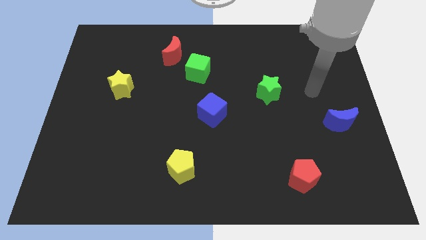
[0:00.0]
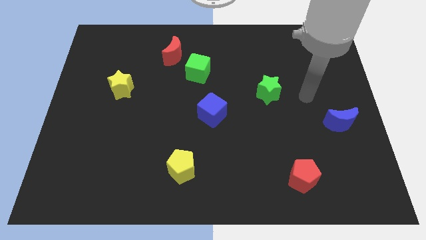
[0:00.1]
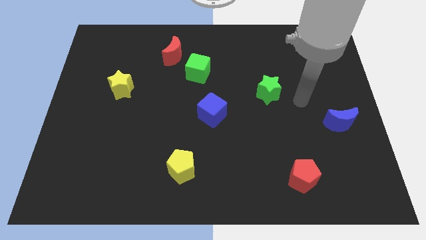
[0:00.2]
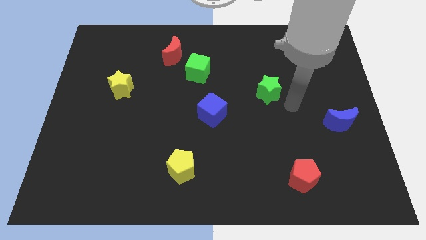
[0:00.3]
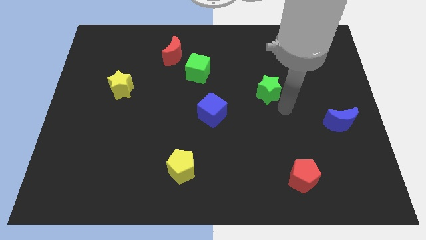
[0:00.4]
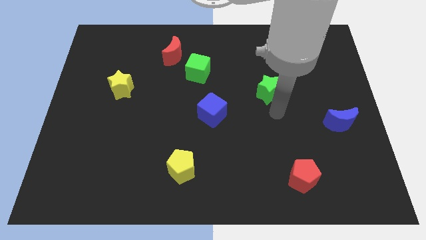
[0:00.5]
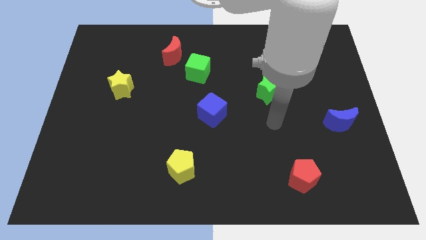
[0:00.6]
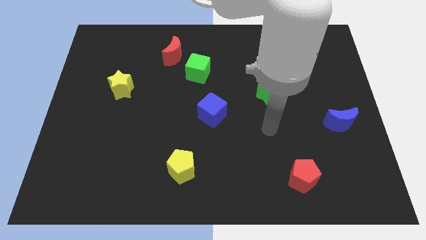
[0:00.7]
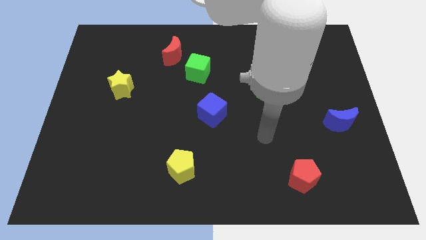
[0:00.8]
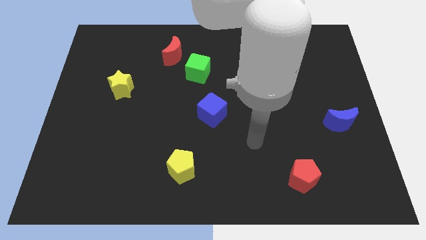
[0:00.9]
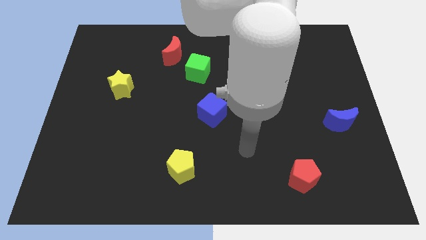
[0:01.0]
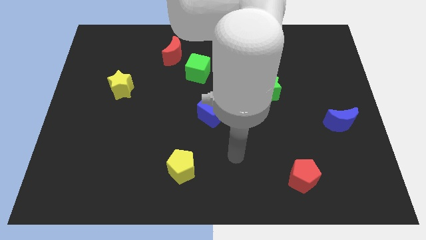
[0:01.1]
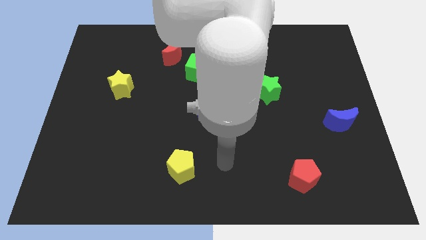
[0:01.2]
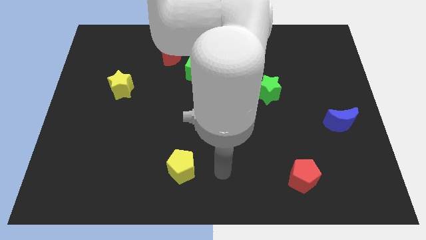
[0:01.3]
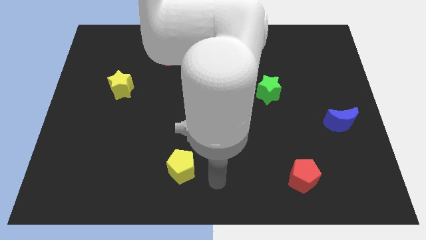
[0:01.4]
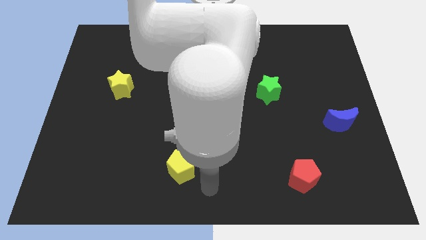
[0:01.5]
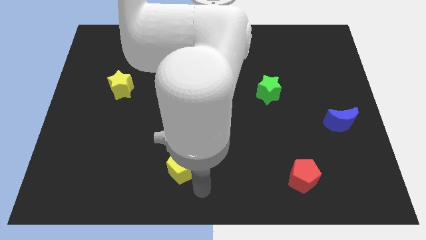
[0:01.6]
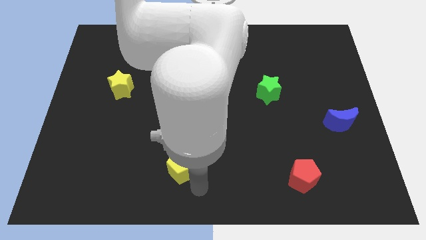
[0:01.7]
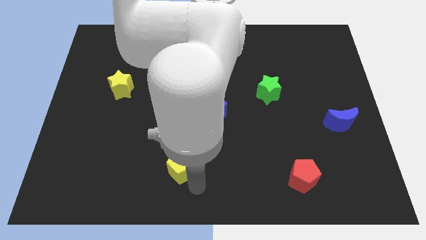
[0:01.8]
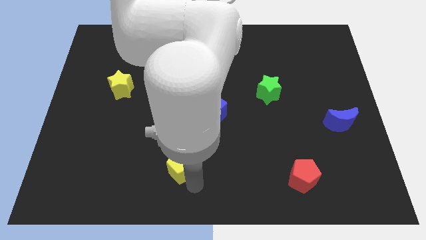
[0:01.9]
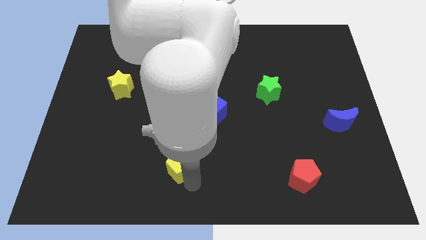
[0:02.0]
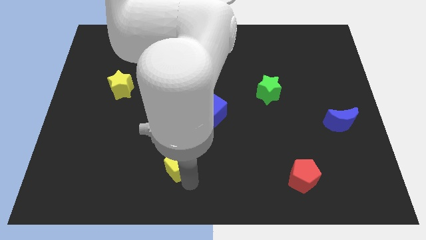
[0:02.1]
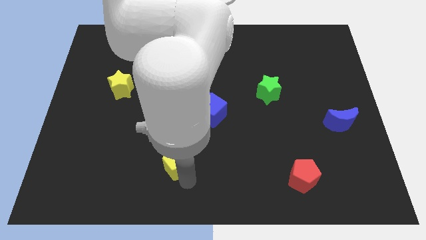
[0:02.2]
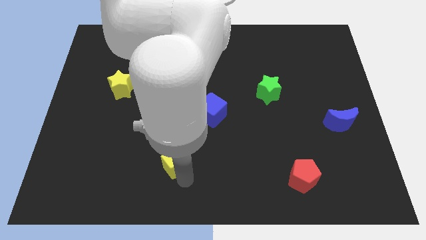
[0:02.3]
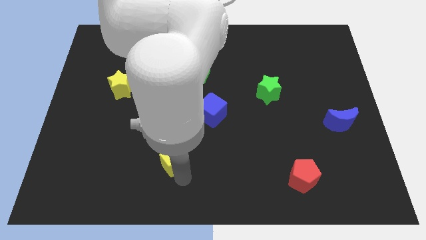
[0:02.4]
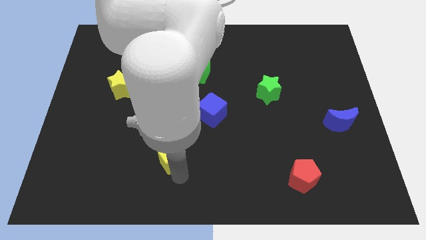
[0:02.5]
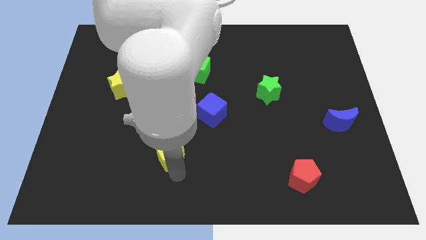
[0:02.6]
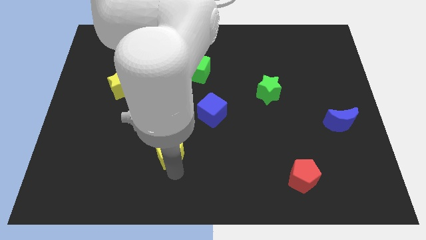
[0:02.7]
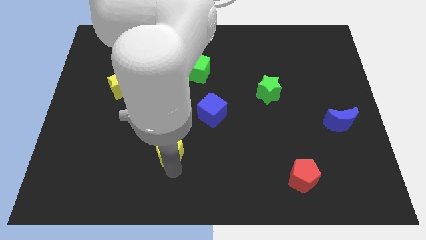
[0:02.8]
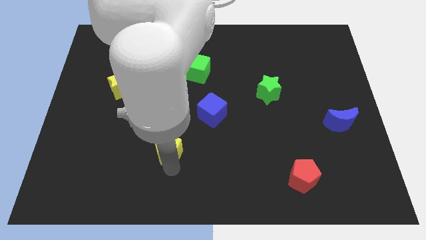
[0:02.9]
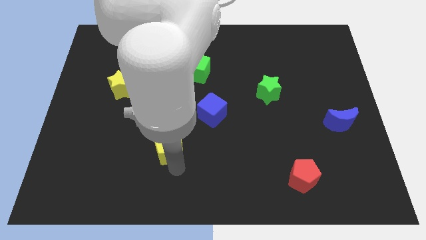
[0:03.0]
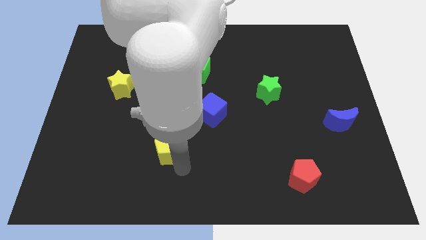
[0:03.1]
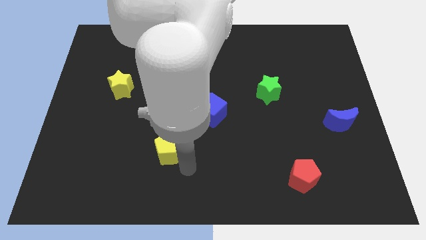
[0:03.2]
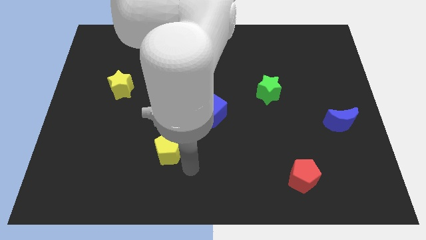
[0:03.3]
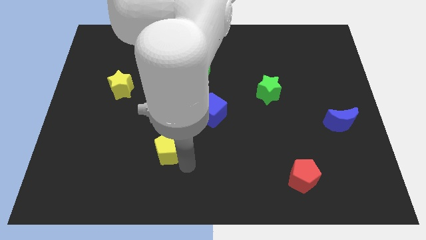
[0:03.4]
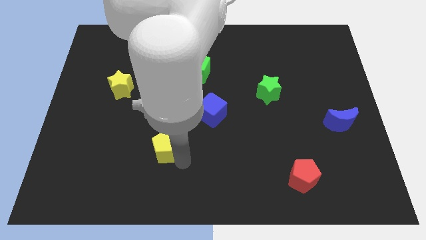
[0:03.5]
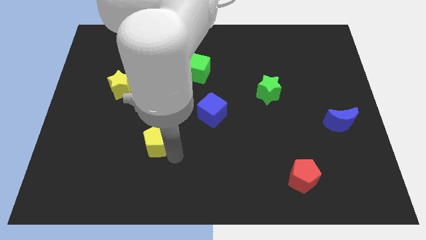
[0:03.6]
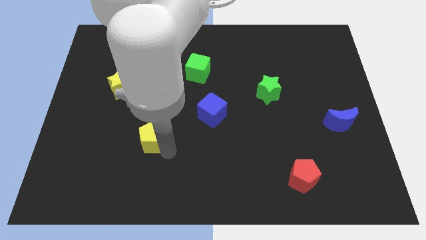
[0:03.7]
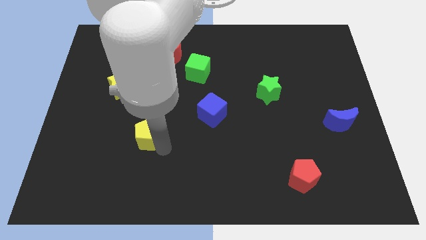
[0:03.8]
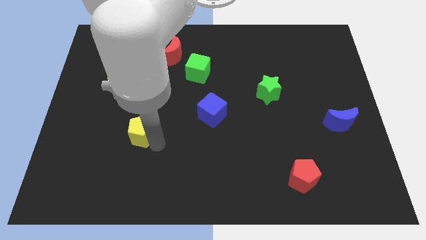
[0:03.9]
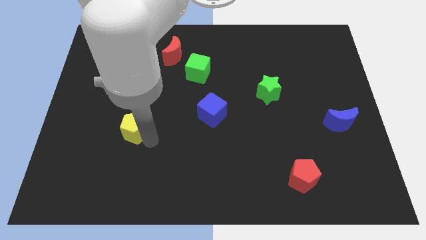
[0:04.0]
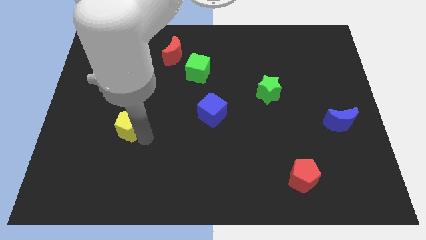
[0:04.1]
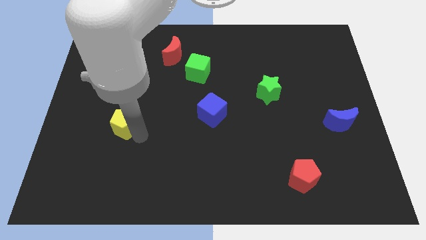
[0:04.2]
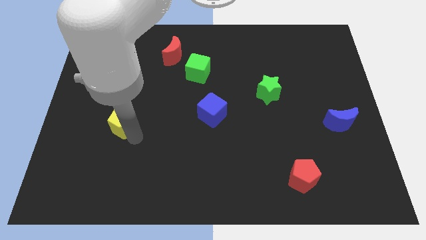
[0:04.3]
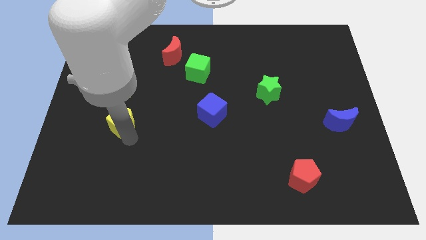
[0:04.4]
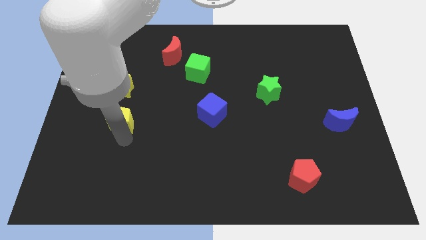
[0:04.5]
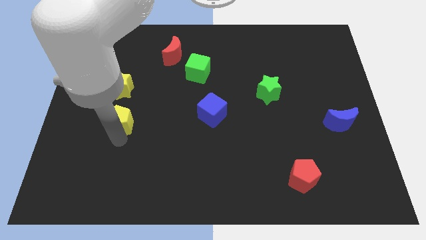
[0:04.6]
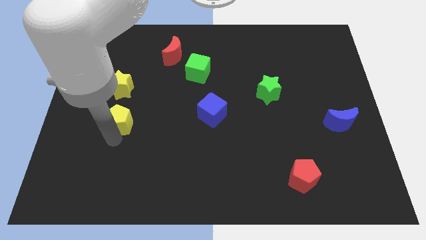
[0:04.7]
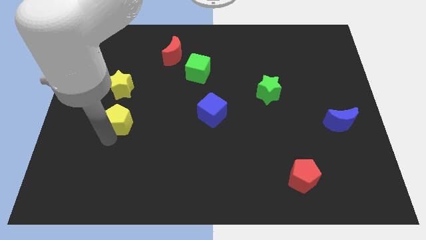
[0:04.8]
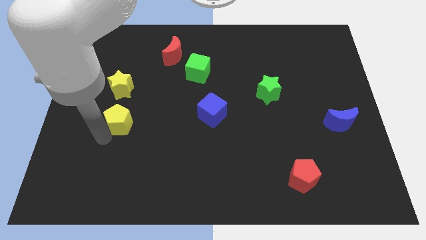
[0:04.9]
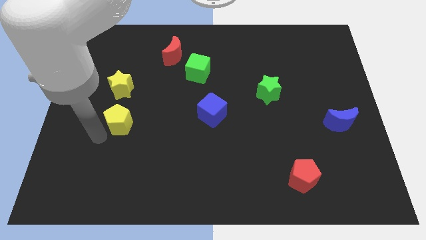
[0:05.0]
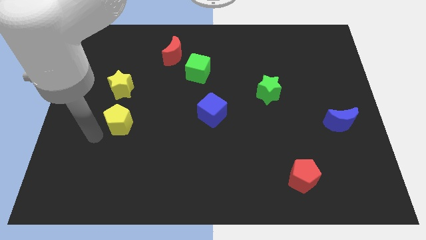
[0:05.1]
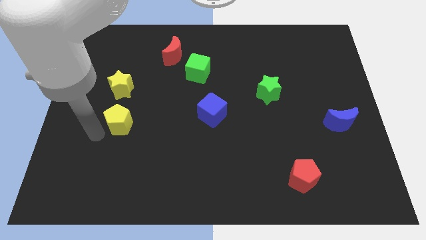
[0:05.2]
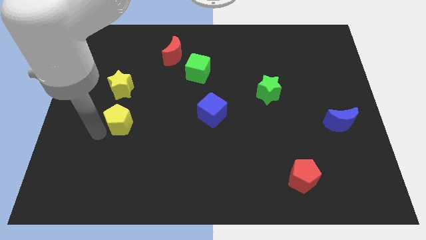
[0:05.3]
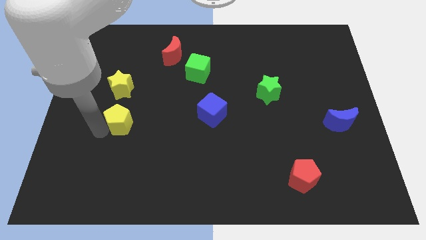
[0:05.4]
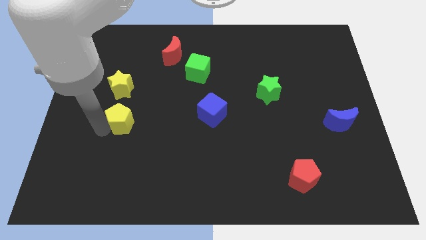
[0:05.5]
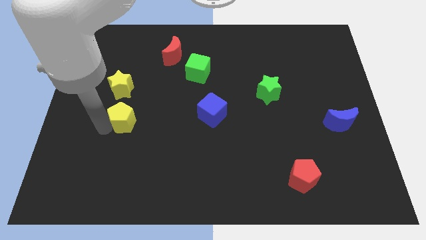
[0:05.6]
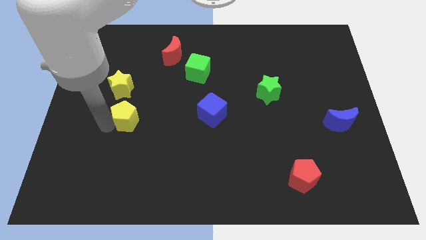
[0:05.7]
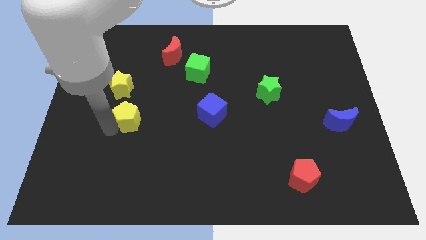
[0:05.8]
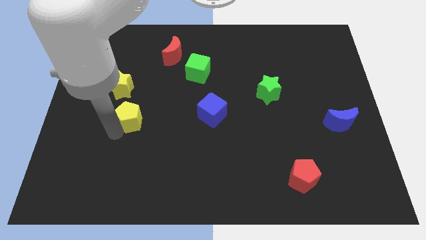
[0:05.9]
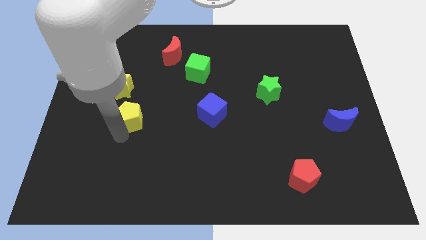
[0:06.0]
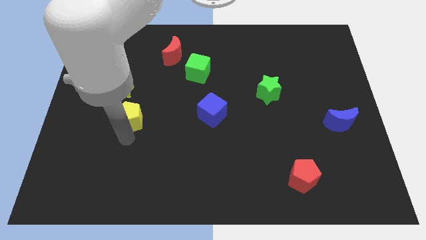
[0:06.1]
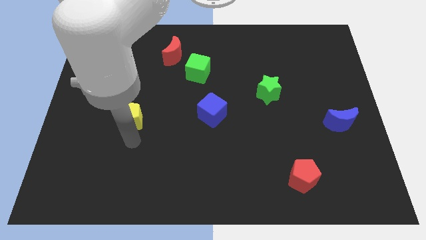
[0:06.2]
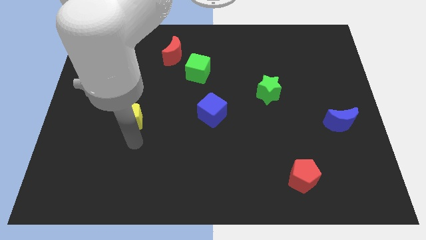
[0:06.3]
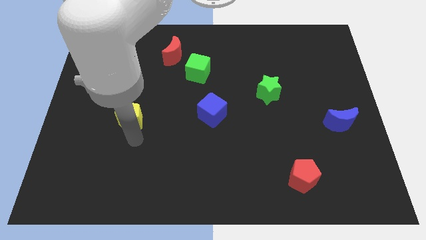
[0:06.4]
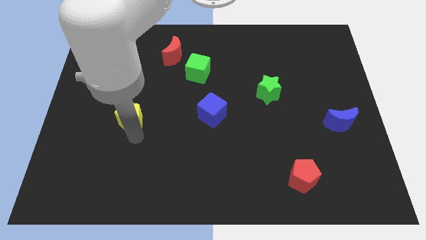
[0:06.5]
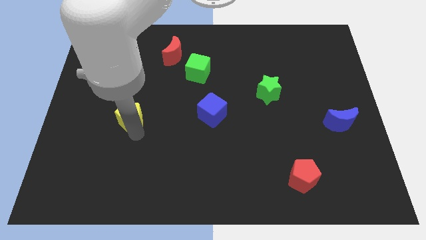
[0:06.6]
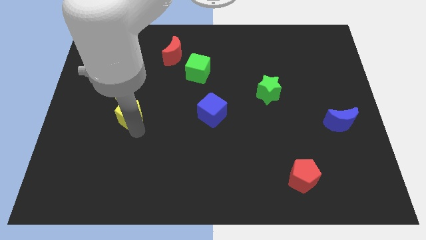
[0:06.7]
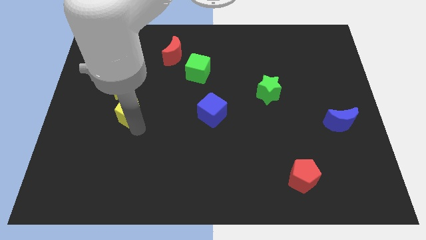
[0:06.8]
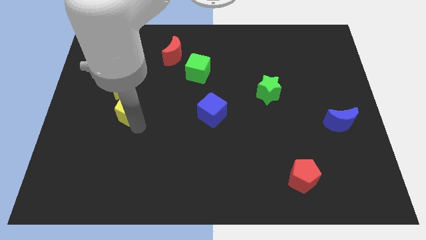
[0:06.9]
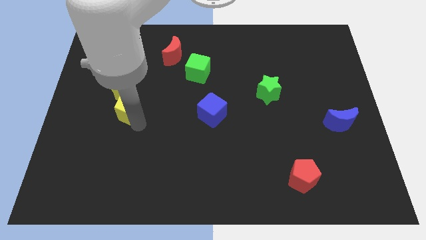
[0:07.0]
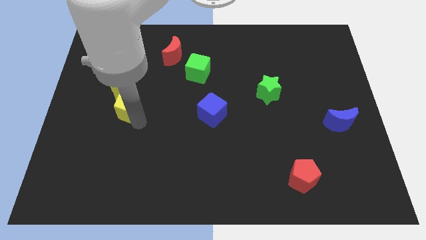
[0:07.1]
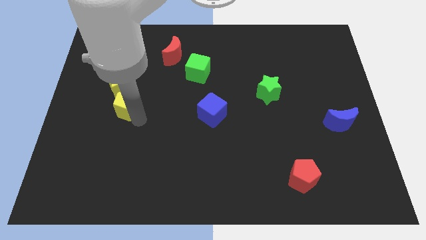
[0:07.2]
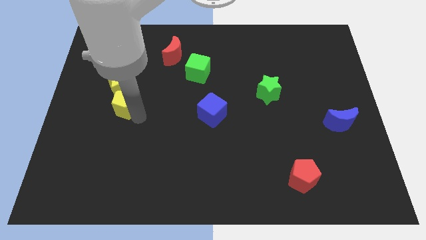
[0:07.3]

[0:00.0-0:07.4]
push the yellow pentagon towards the yellow star
